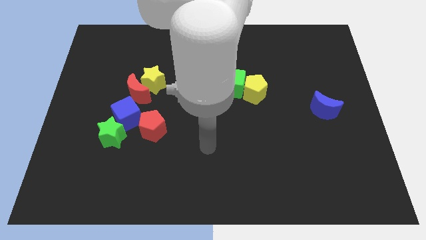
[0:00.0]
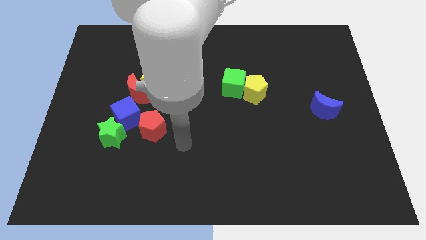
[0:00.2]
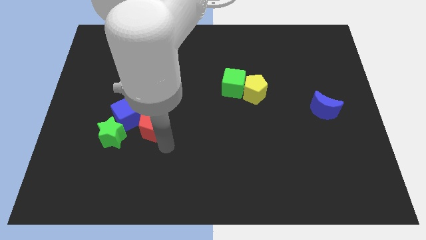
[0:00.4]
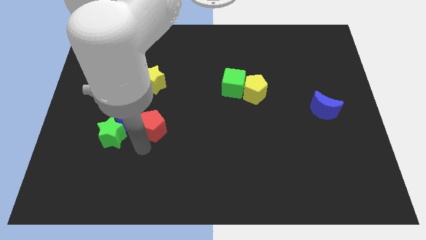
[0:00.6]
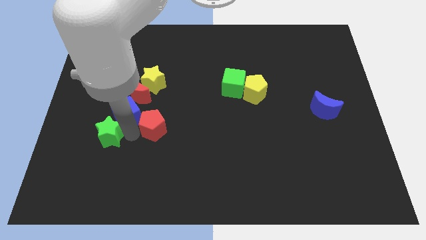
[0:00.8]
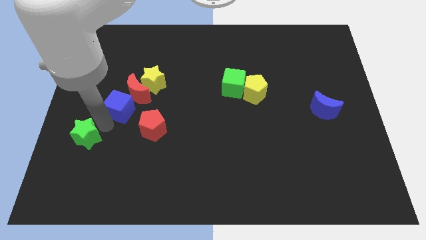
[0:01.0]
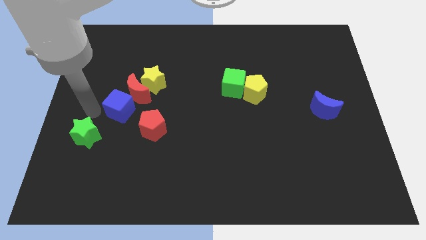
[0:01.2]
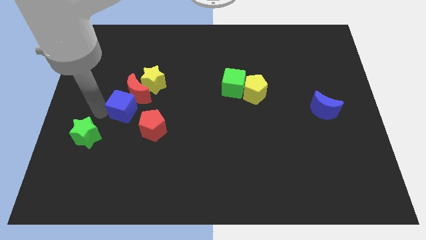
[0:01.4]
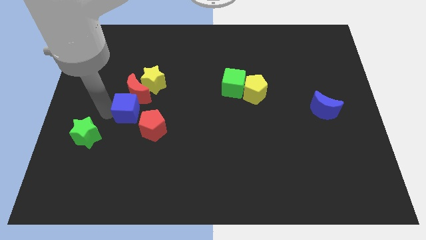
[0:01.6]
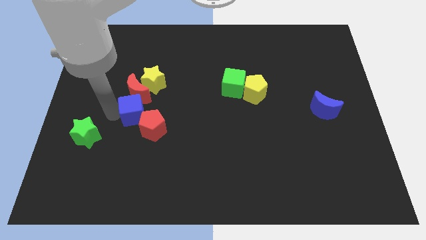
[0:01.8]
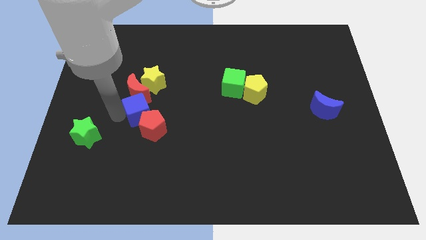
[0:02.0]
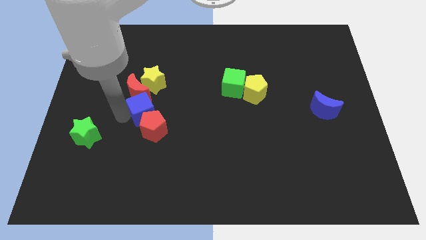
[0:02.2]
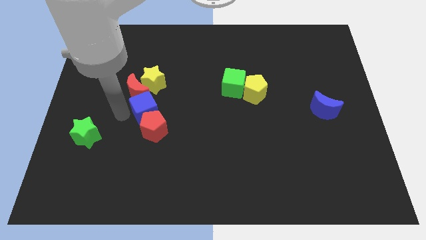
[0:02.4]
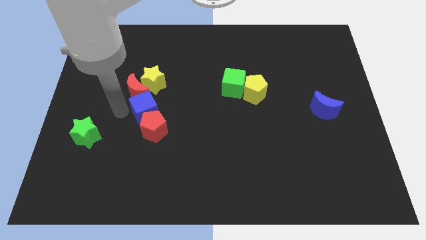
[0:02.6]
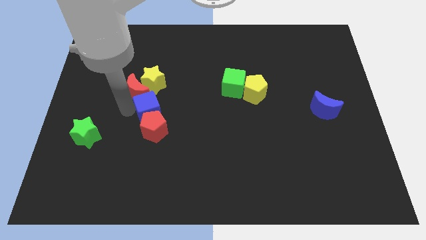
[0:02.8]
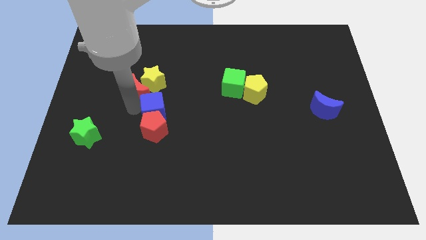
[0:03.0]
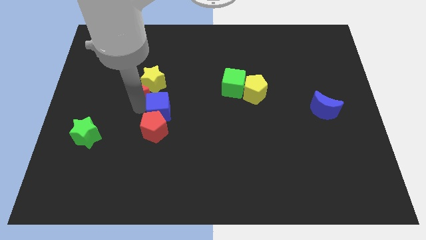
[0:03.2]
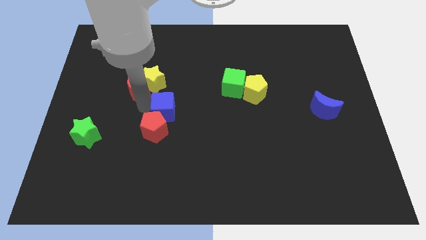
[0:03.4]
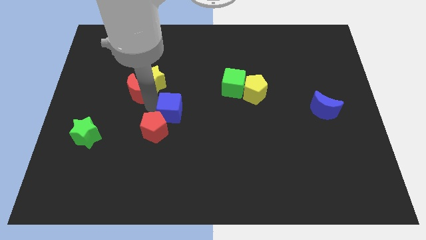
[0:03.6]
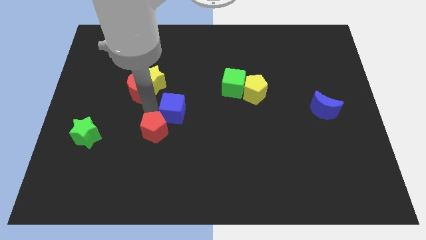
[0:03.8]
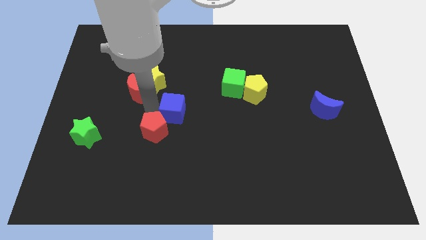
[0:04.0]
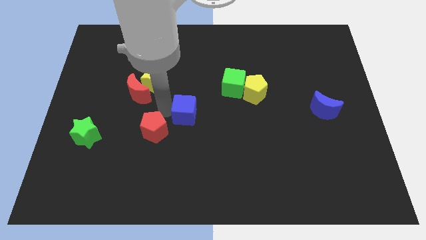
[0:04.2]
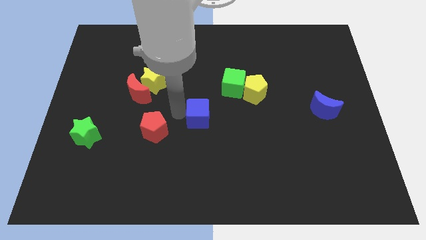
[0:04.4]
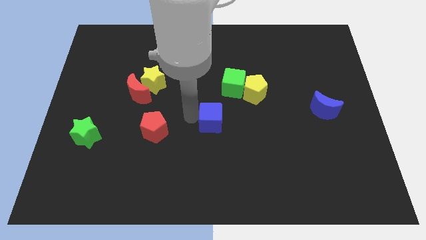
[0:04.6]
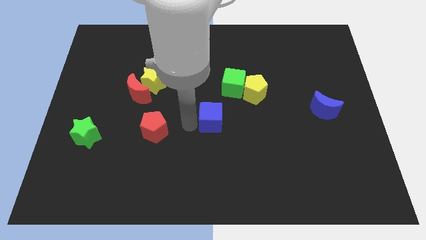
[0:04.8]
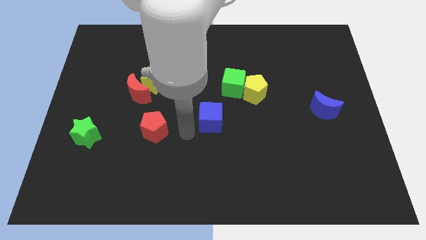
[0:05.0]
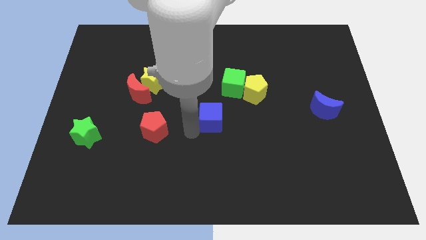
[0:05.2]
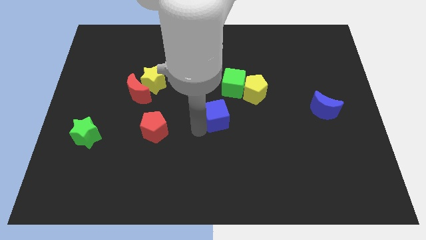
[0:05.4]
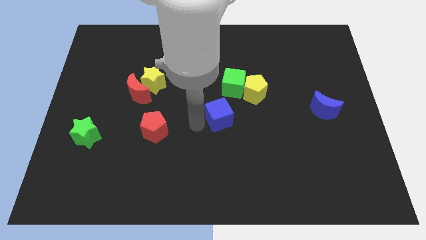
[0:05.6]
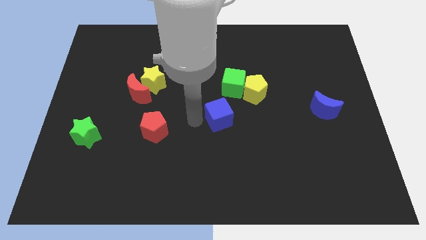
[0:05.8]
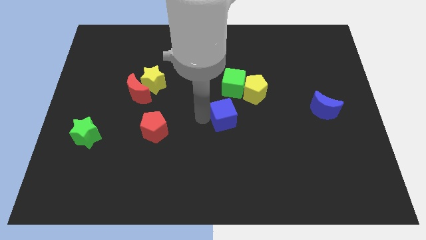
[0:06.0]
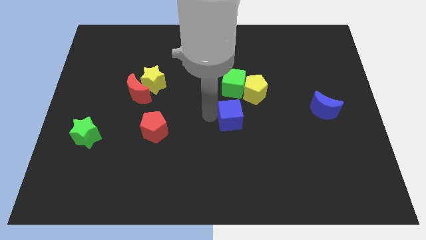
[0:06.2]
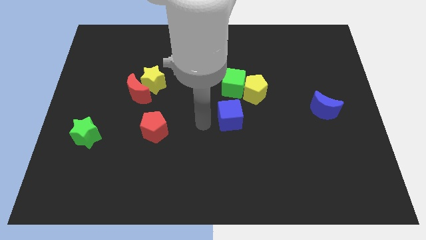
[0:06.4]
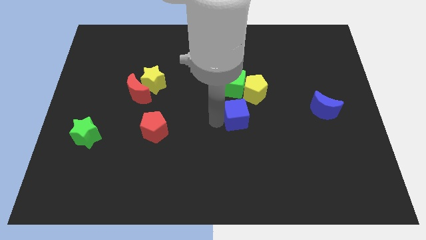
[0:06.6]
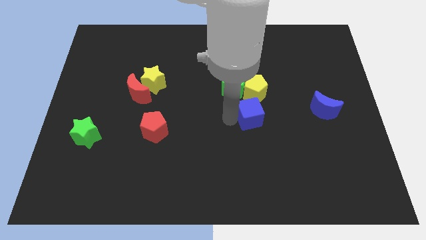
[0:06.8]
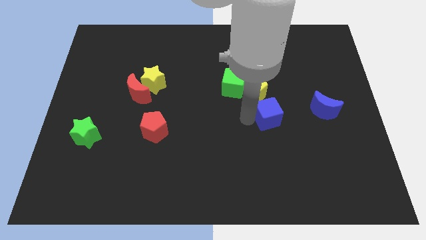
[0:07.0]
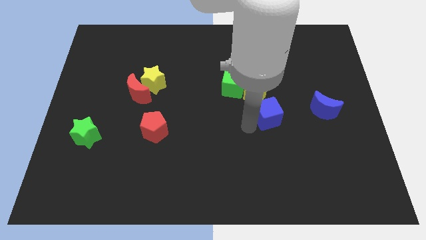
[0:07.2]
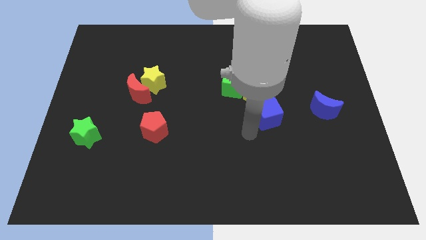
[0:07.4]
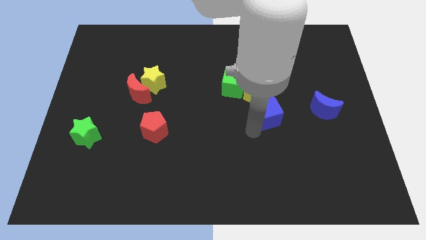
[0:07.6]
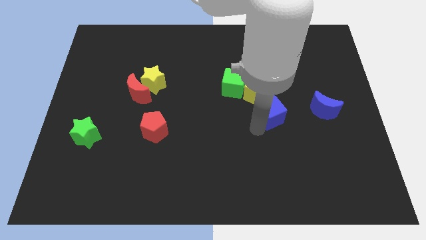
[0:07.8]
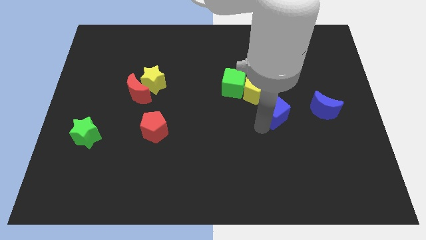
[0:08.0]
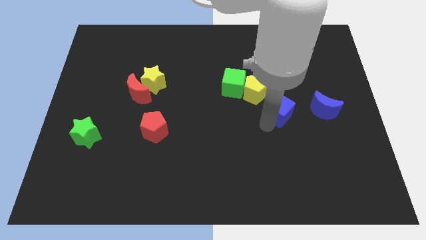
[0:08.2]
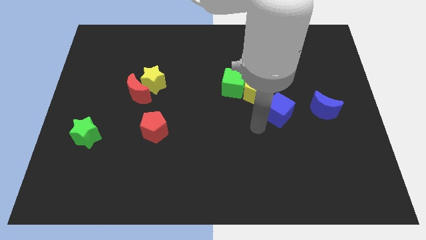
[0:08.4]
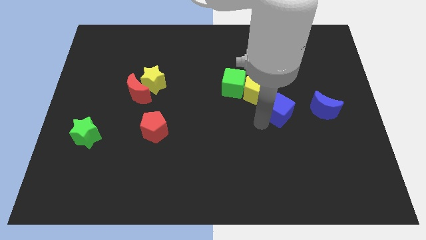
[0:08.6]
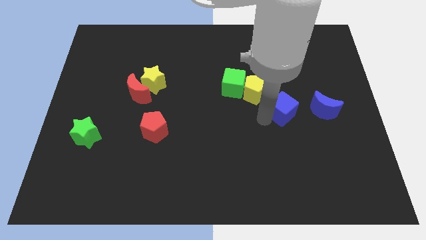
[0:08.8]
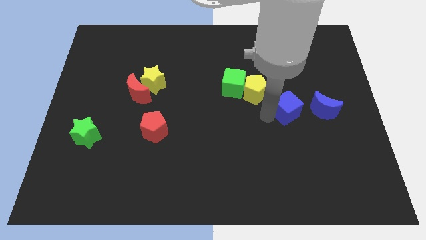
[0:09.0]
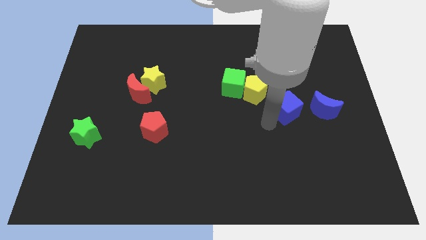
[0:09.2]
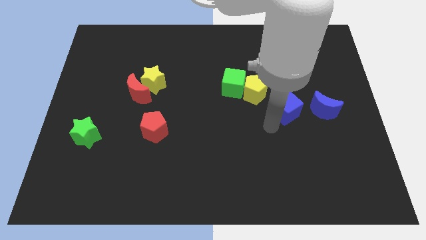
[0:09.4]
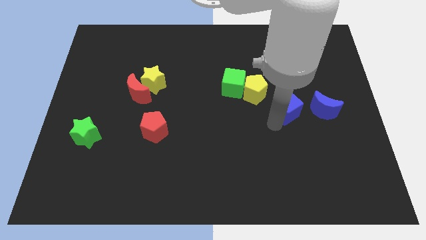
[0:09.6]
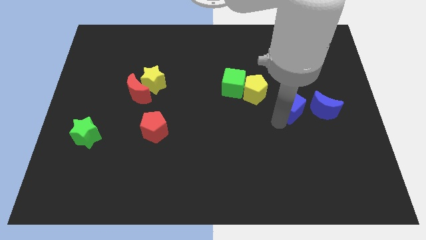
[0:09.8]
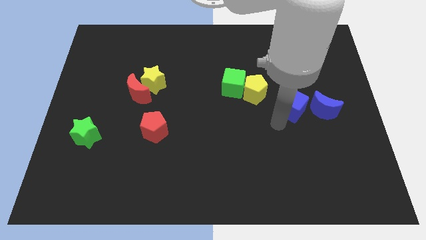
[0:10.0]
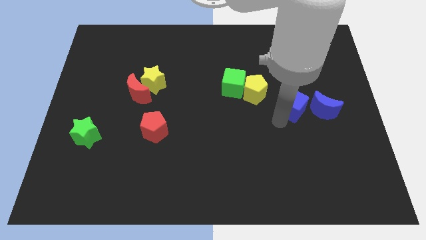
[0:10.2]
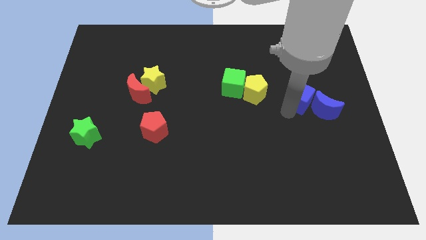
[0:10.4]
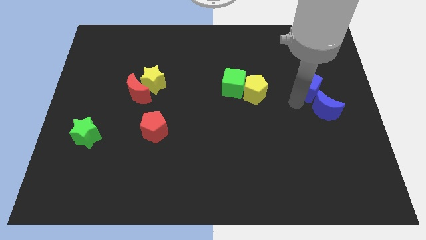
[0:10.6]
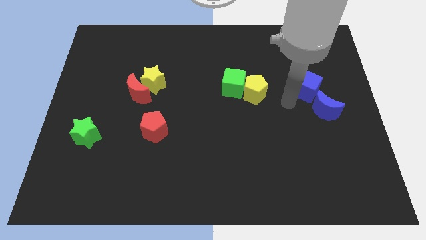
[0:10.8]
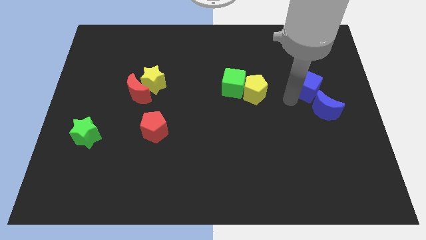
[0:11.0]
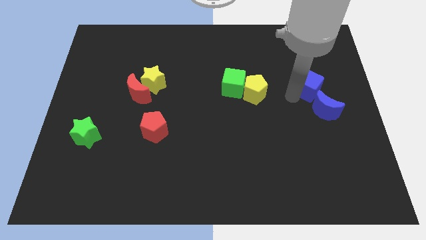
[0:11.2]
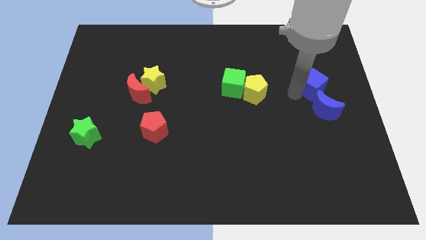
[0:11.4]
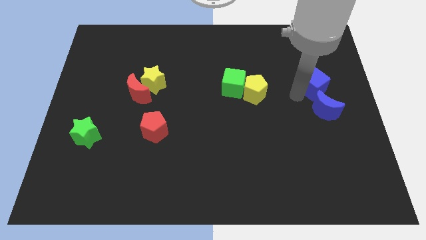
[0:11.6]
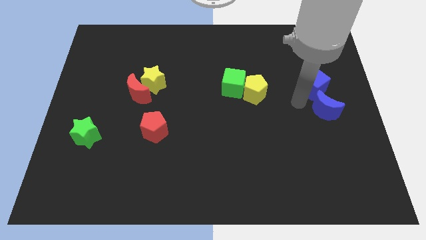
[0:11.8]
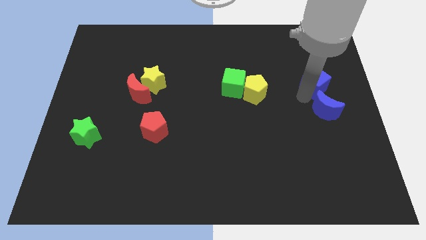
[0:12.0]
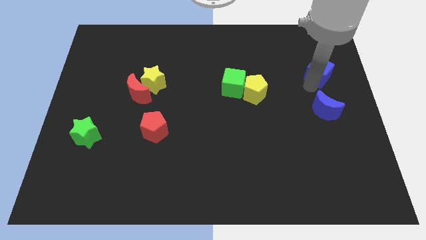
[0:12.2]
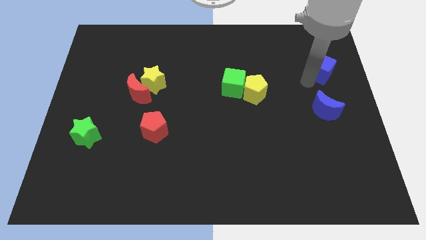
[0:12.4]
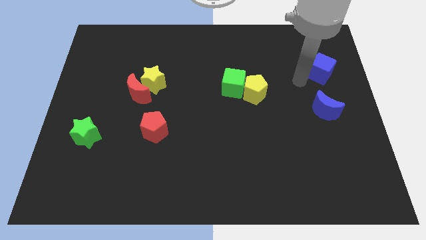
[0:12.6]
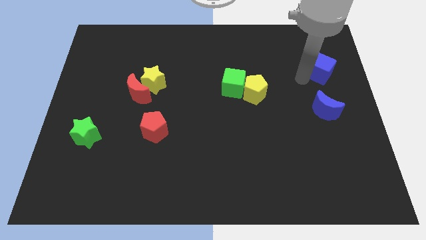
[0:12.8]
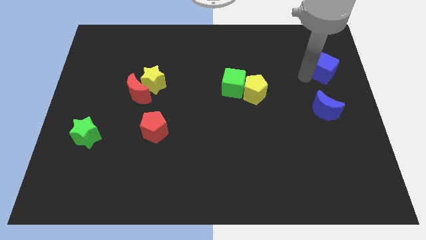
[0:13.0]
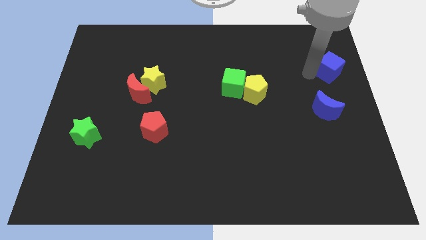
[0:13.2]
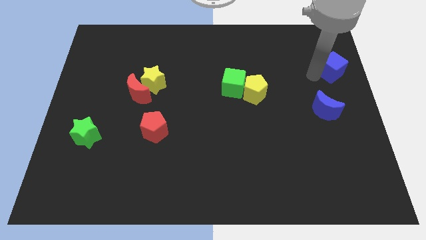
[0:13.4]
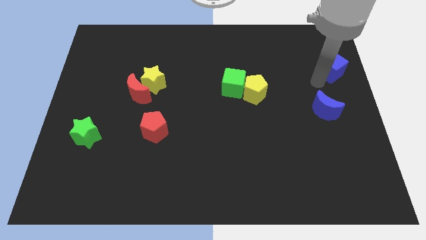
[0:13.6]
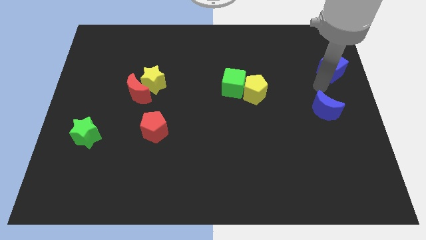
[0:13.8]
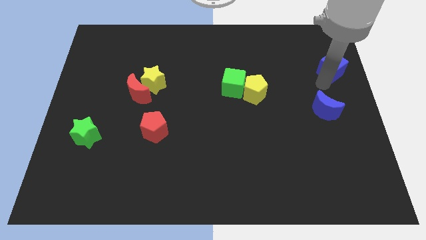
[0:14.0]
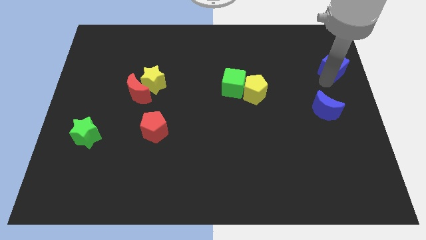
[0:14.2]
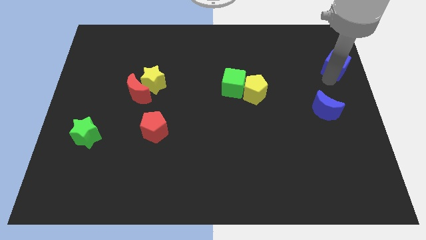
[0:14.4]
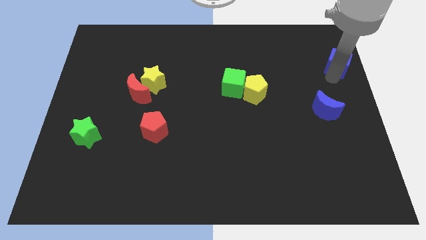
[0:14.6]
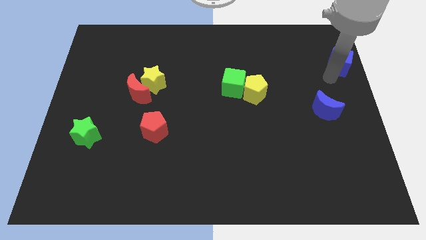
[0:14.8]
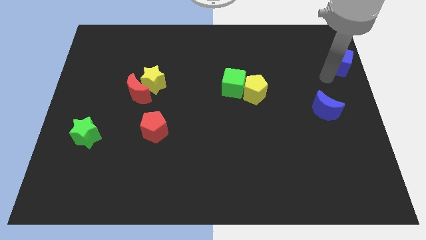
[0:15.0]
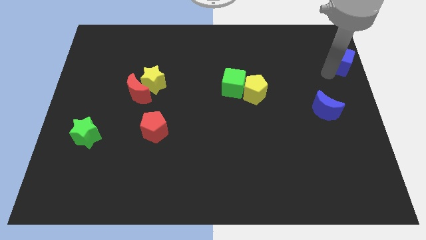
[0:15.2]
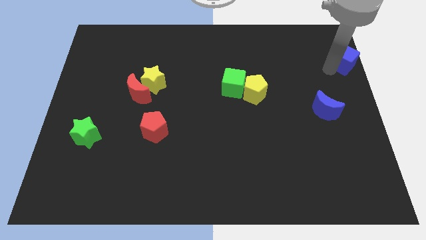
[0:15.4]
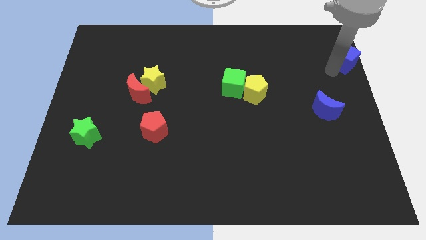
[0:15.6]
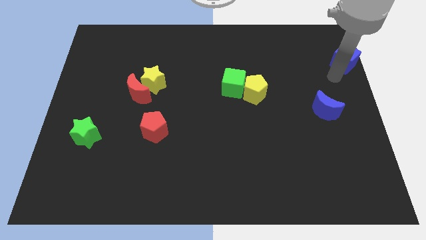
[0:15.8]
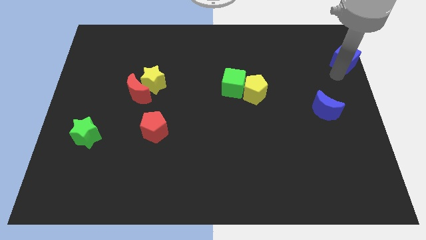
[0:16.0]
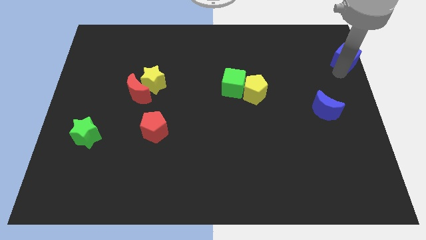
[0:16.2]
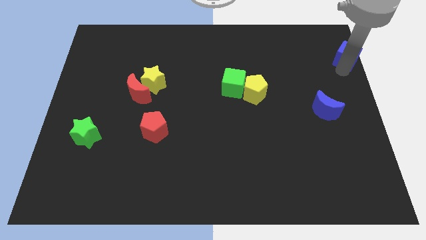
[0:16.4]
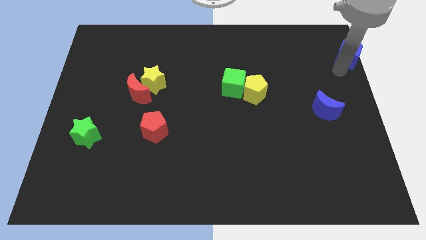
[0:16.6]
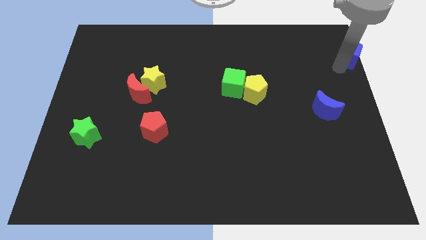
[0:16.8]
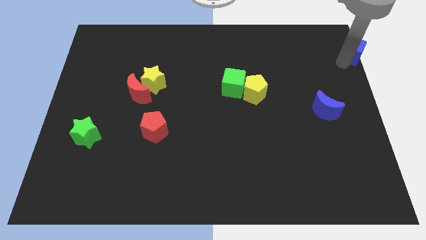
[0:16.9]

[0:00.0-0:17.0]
slide the blue cube to the top right
